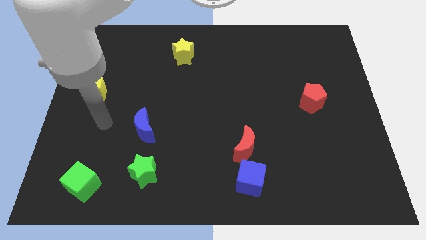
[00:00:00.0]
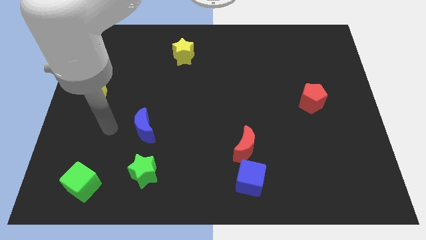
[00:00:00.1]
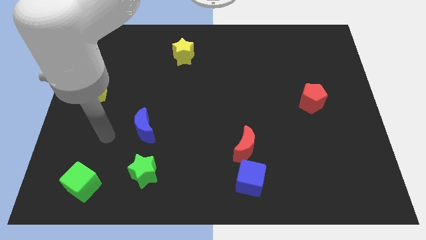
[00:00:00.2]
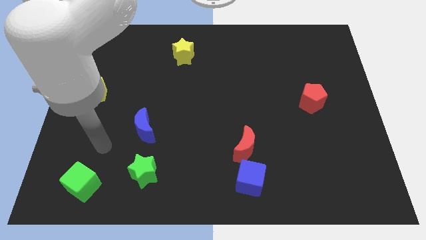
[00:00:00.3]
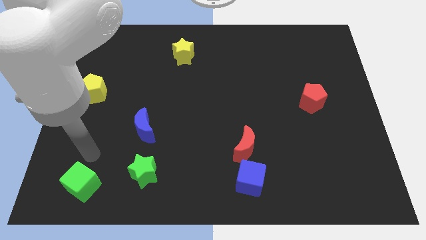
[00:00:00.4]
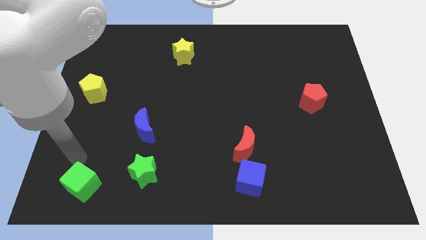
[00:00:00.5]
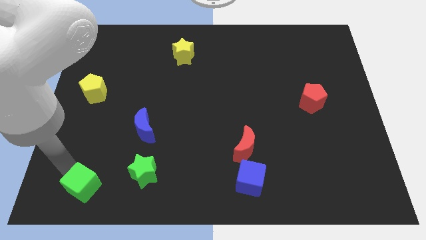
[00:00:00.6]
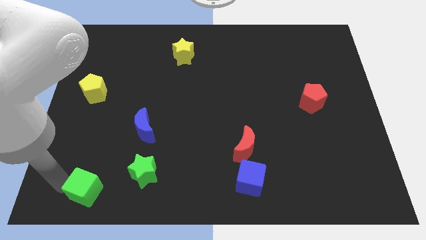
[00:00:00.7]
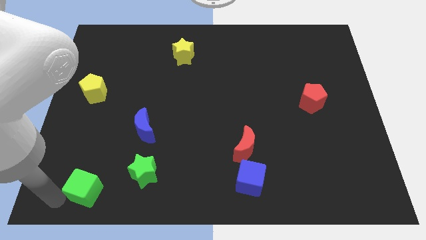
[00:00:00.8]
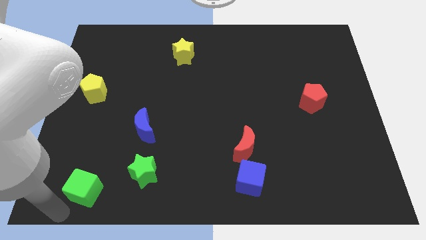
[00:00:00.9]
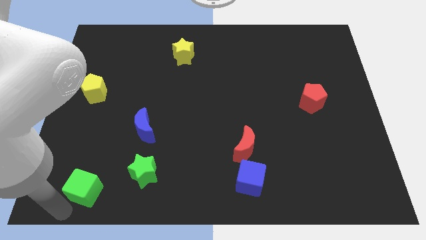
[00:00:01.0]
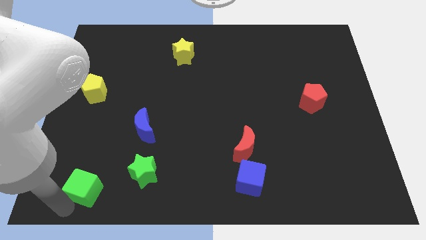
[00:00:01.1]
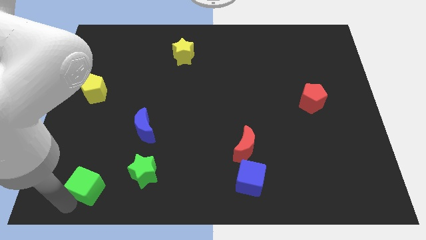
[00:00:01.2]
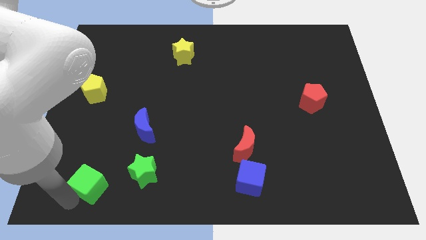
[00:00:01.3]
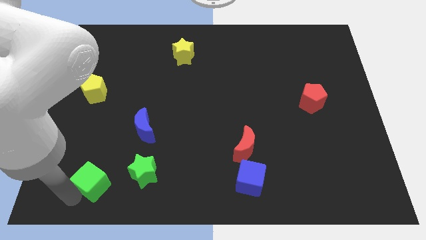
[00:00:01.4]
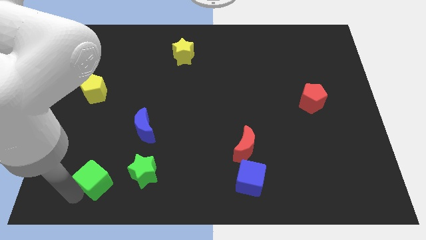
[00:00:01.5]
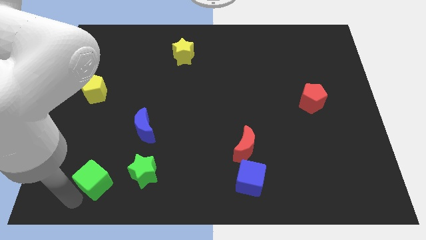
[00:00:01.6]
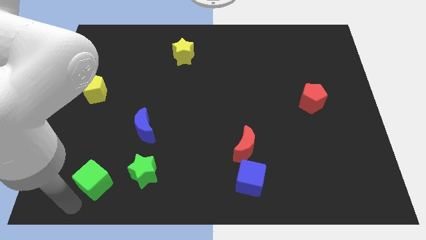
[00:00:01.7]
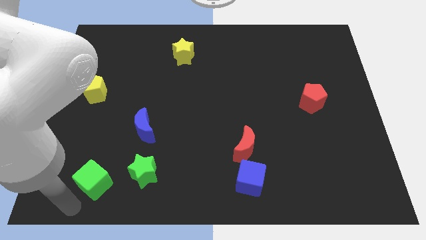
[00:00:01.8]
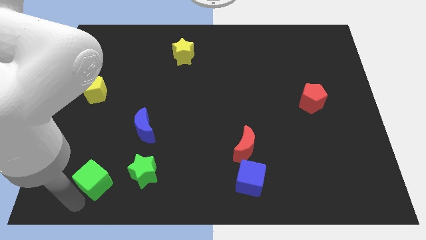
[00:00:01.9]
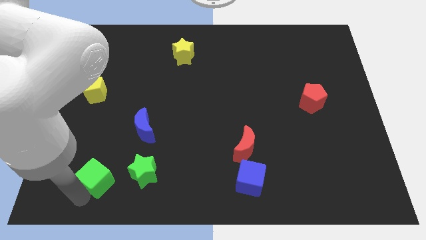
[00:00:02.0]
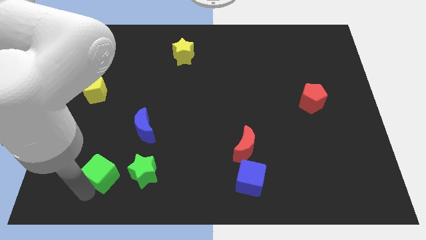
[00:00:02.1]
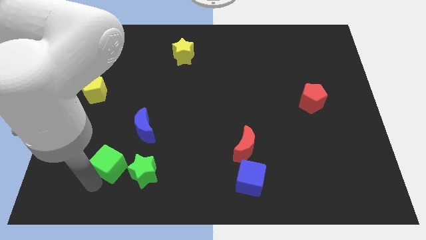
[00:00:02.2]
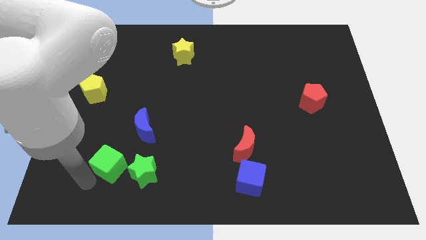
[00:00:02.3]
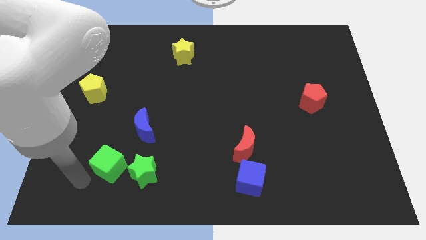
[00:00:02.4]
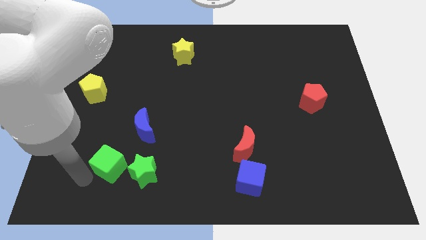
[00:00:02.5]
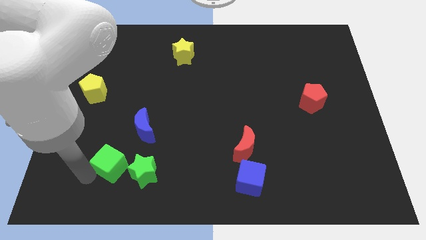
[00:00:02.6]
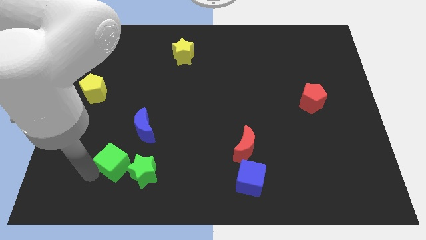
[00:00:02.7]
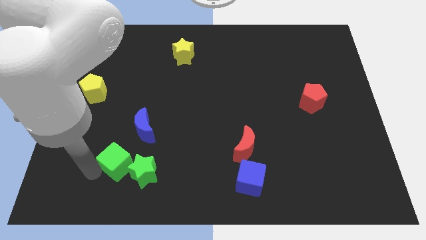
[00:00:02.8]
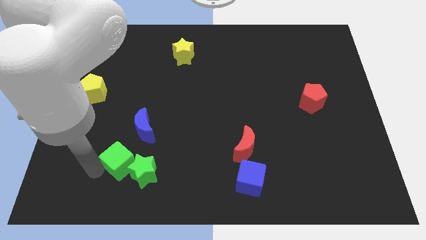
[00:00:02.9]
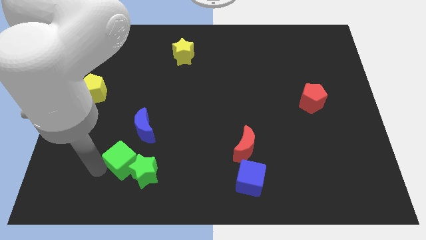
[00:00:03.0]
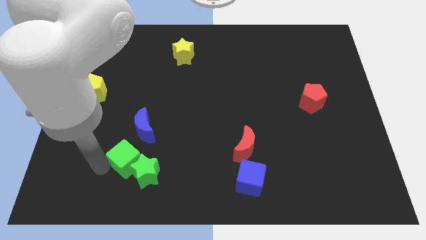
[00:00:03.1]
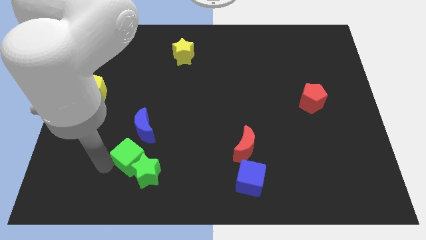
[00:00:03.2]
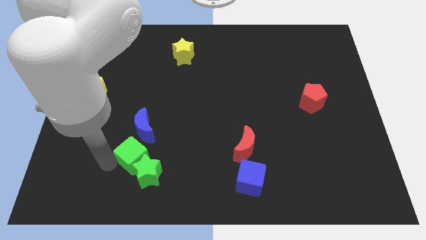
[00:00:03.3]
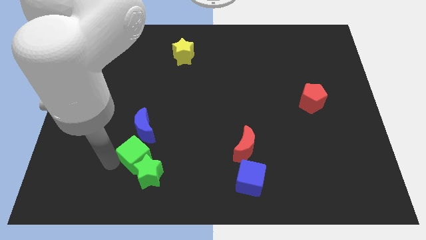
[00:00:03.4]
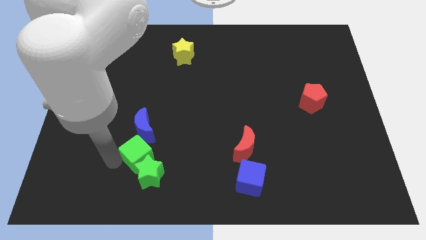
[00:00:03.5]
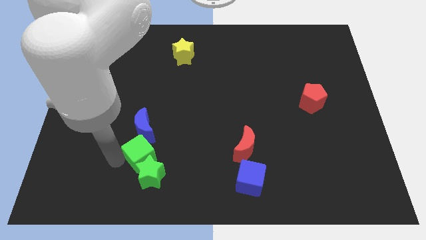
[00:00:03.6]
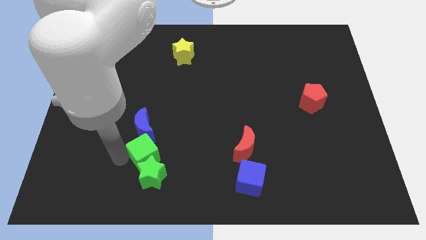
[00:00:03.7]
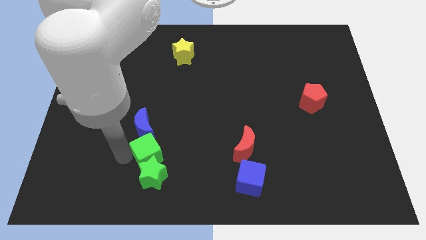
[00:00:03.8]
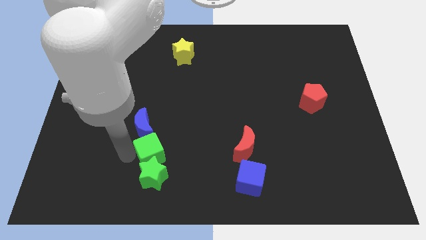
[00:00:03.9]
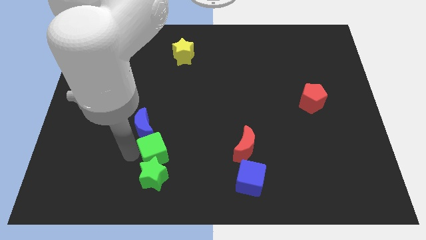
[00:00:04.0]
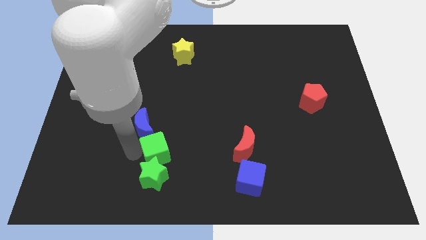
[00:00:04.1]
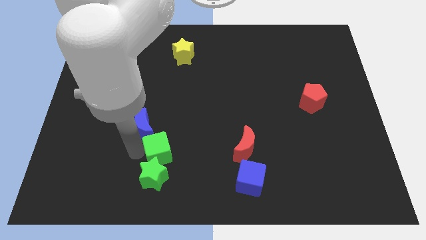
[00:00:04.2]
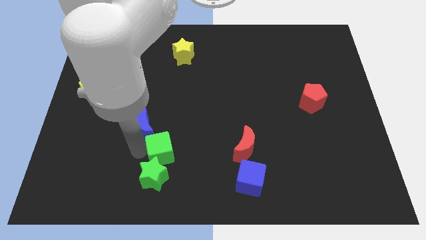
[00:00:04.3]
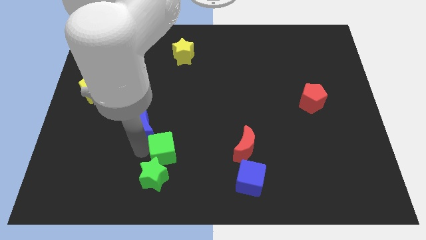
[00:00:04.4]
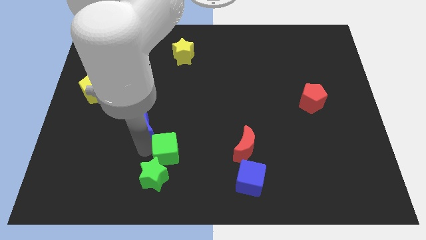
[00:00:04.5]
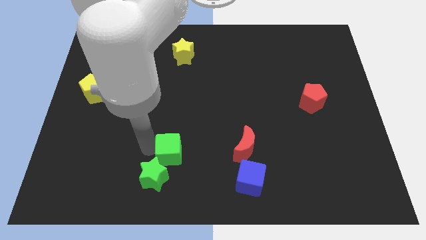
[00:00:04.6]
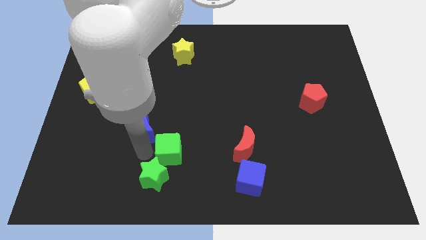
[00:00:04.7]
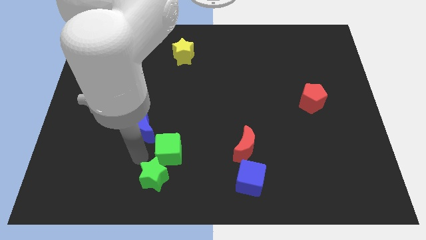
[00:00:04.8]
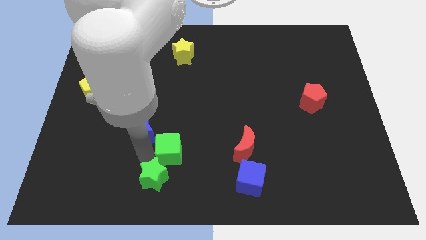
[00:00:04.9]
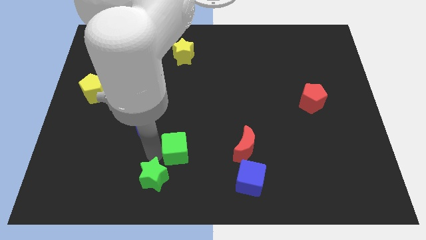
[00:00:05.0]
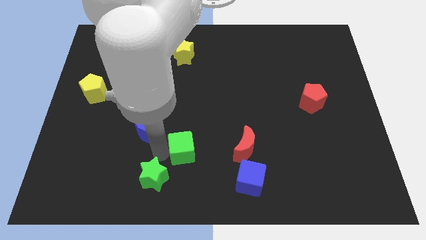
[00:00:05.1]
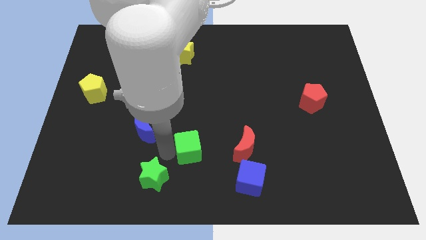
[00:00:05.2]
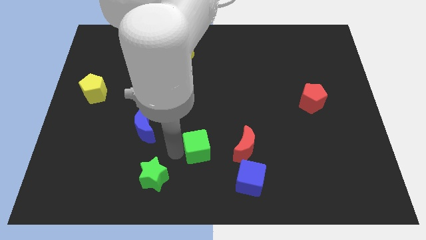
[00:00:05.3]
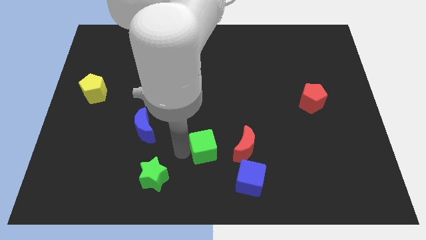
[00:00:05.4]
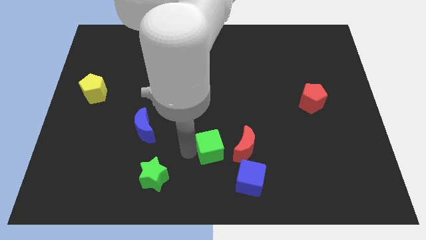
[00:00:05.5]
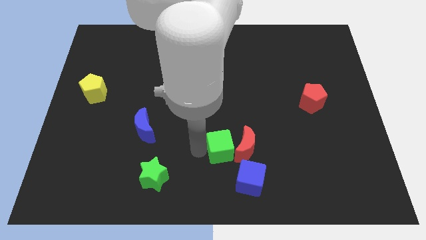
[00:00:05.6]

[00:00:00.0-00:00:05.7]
put the green cube close to the red moon

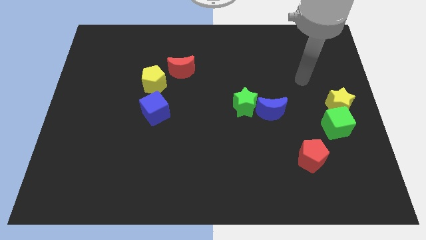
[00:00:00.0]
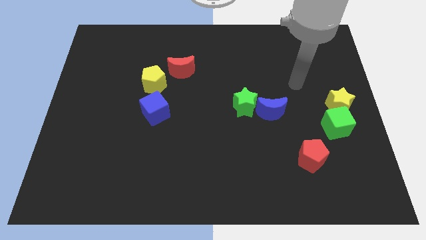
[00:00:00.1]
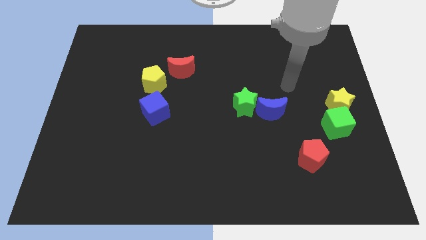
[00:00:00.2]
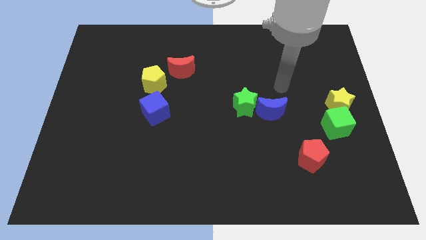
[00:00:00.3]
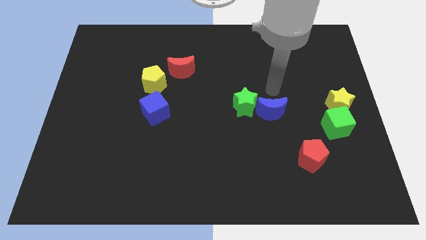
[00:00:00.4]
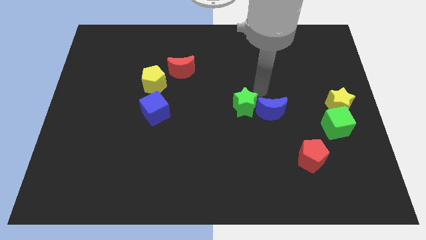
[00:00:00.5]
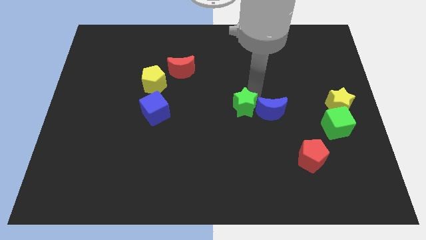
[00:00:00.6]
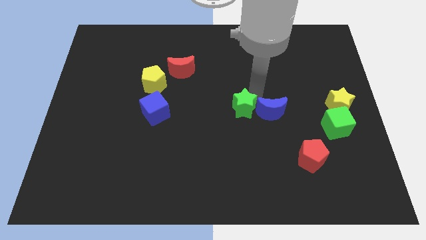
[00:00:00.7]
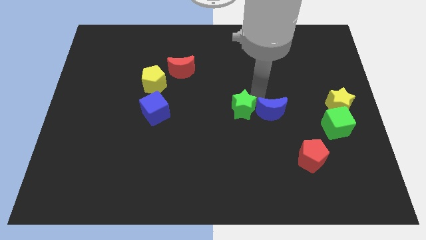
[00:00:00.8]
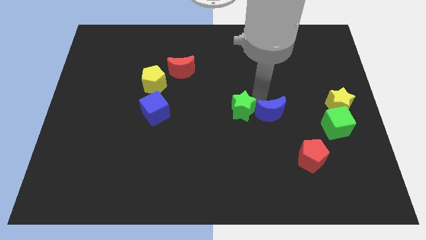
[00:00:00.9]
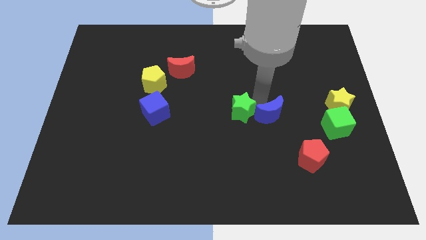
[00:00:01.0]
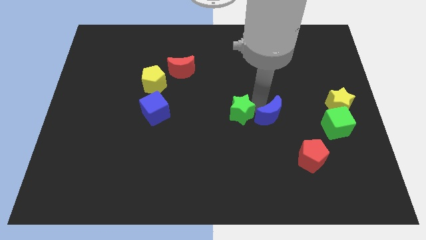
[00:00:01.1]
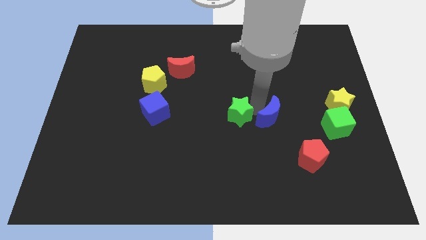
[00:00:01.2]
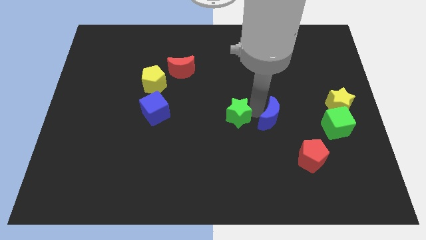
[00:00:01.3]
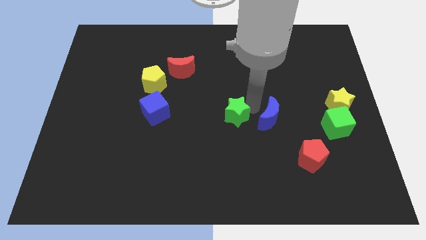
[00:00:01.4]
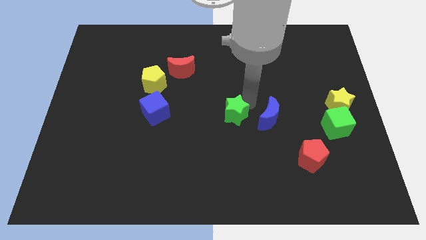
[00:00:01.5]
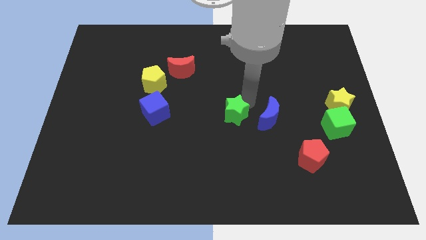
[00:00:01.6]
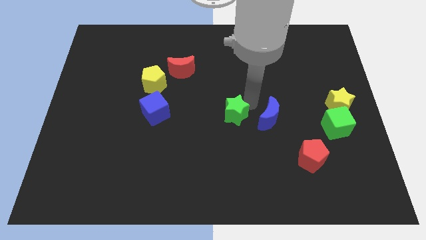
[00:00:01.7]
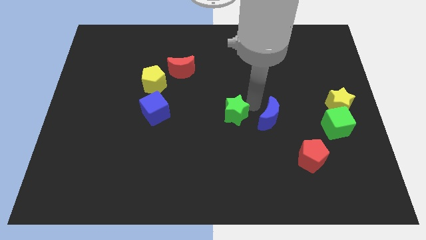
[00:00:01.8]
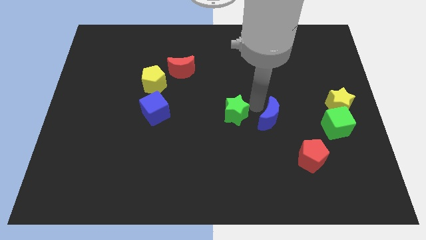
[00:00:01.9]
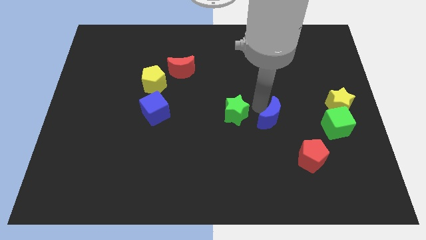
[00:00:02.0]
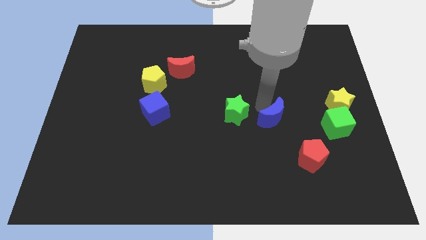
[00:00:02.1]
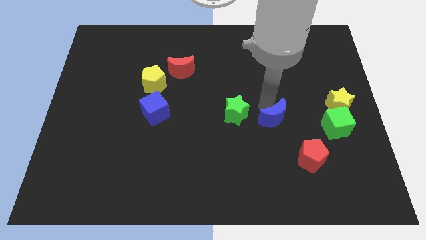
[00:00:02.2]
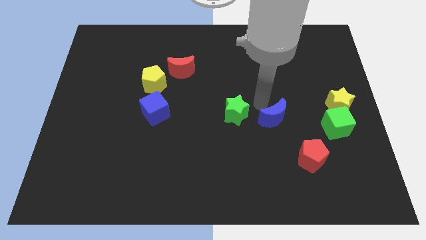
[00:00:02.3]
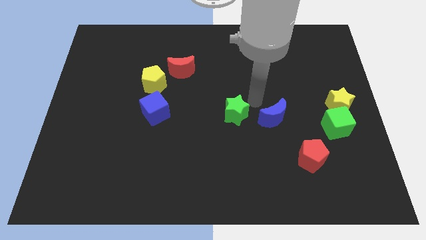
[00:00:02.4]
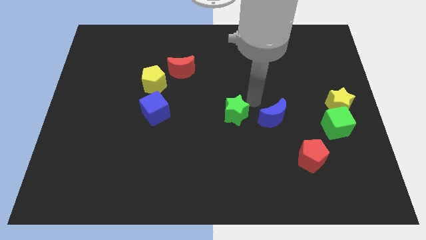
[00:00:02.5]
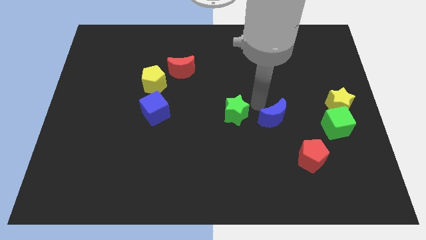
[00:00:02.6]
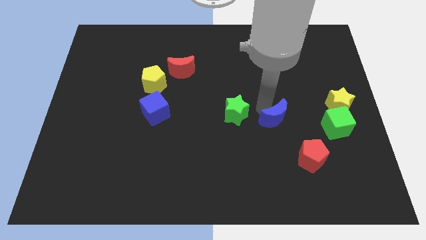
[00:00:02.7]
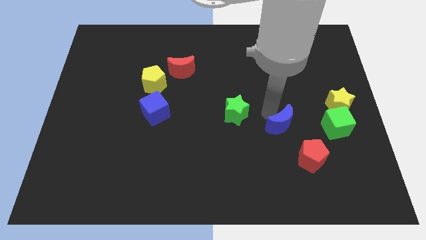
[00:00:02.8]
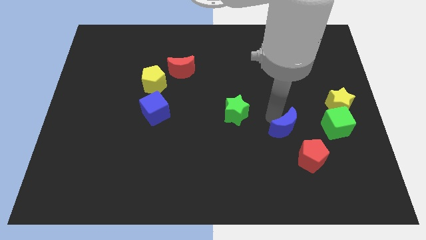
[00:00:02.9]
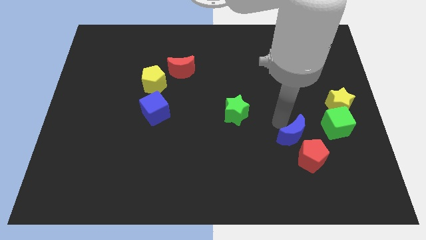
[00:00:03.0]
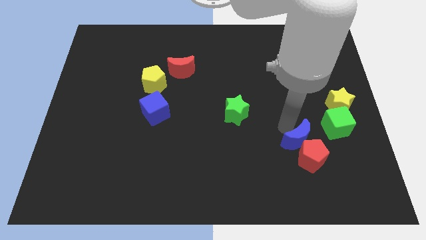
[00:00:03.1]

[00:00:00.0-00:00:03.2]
move the blue moon to the red pentagon
